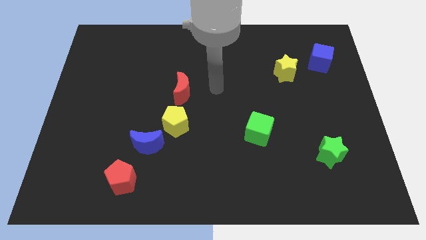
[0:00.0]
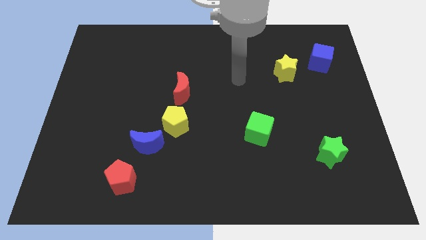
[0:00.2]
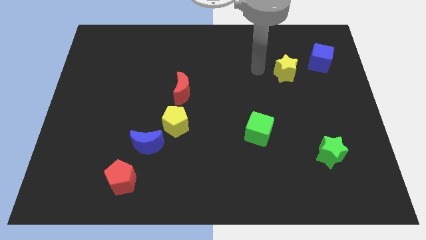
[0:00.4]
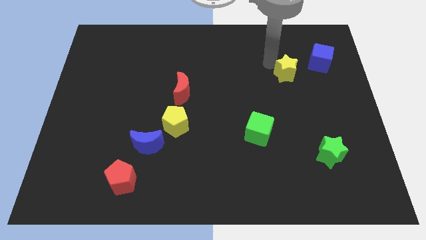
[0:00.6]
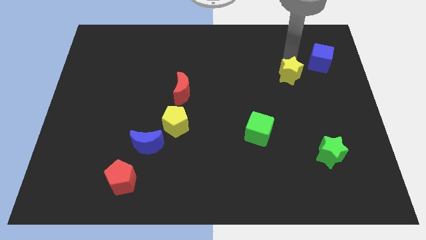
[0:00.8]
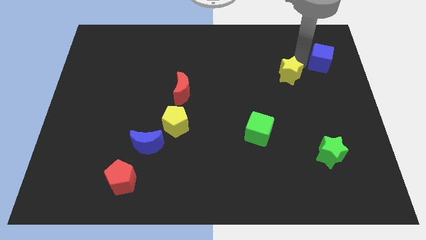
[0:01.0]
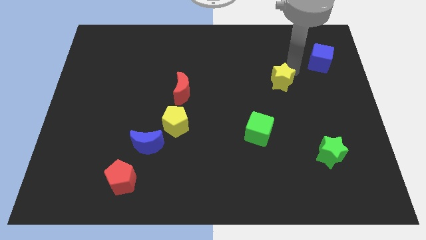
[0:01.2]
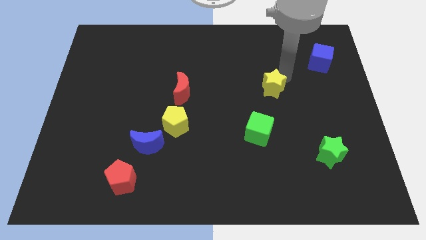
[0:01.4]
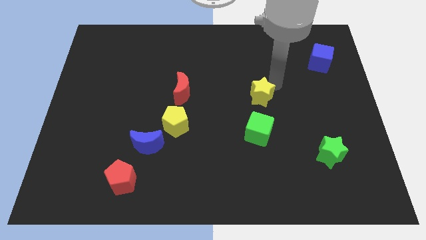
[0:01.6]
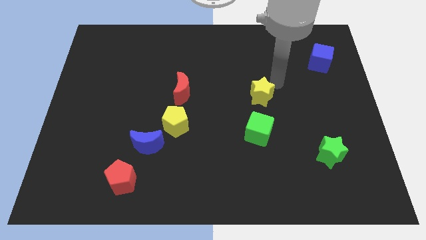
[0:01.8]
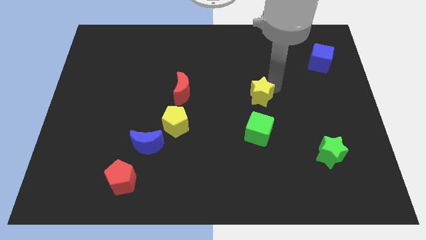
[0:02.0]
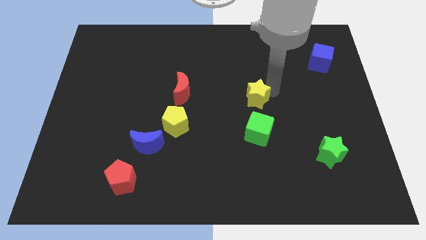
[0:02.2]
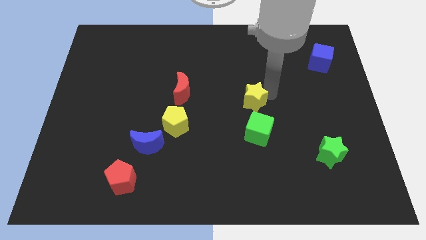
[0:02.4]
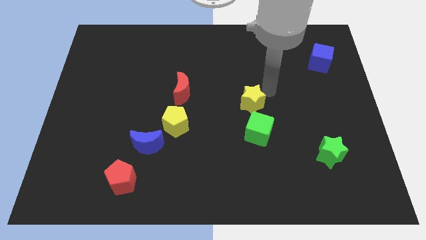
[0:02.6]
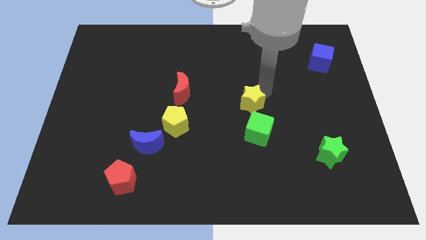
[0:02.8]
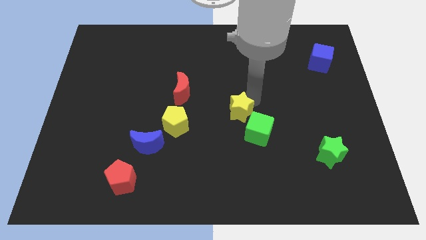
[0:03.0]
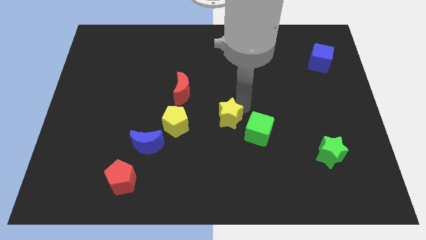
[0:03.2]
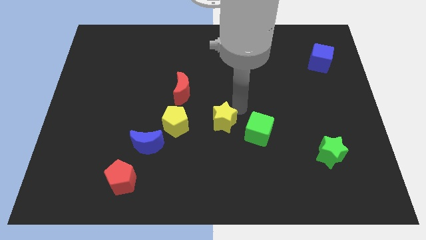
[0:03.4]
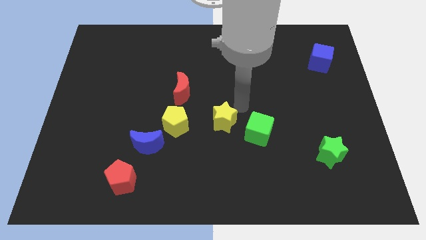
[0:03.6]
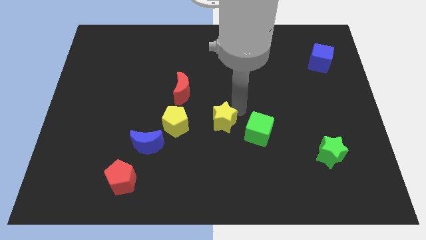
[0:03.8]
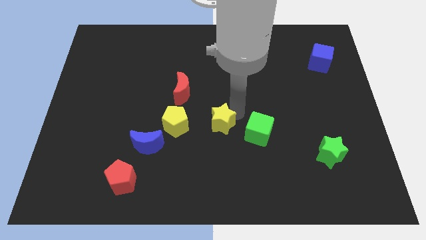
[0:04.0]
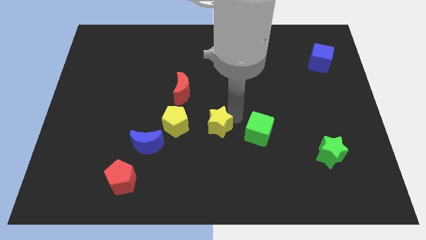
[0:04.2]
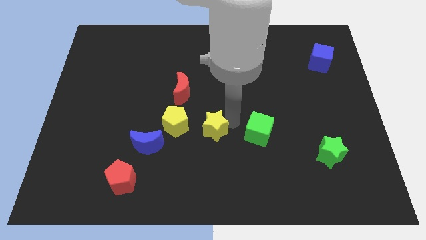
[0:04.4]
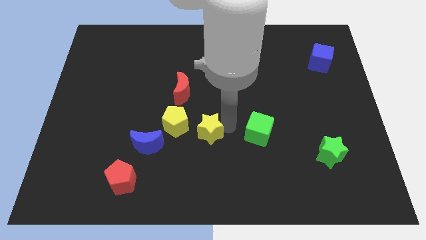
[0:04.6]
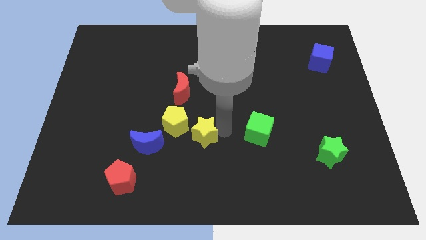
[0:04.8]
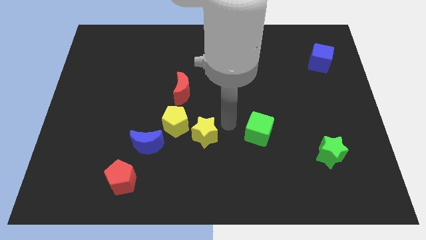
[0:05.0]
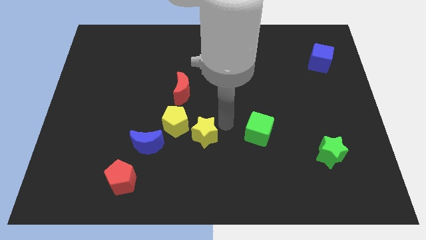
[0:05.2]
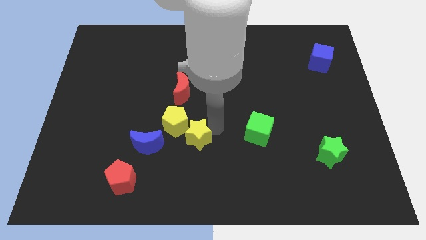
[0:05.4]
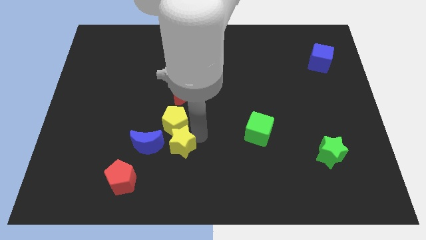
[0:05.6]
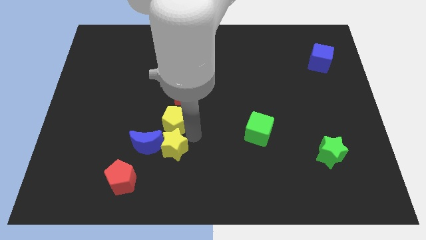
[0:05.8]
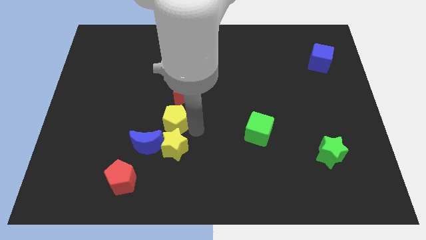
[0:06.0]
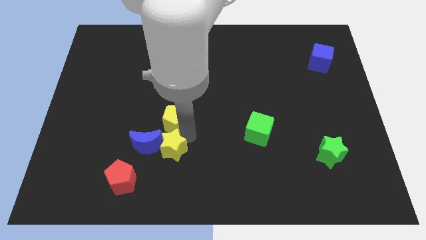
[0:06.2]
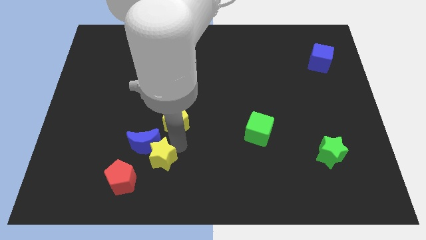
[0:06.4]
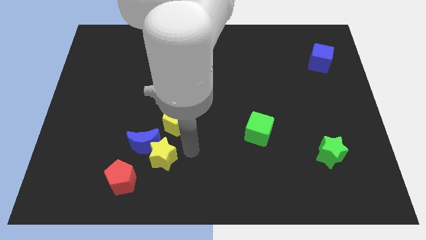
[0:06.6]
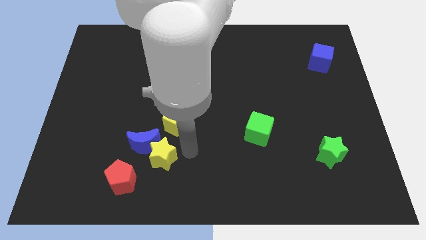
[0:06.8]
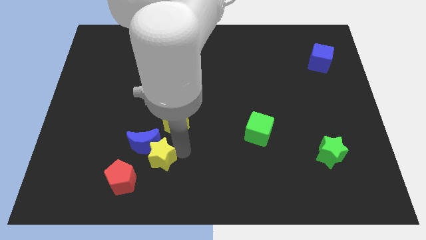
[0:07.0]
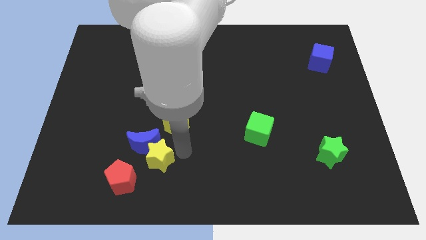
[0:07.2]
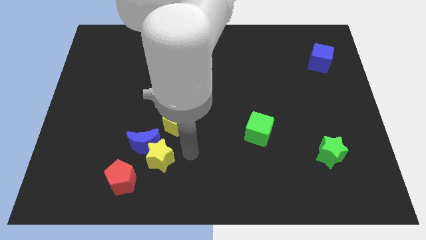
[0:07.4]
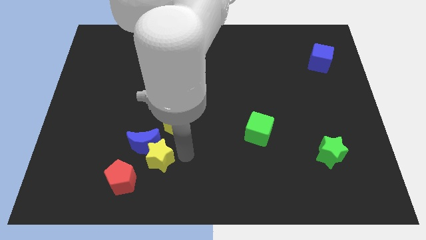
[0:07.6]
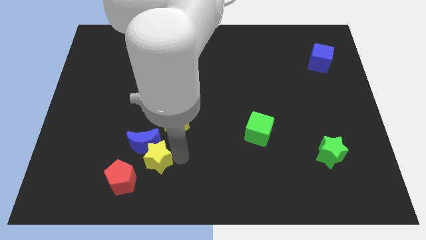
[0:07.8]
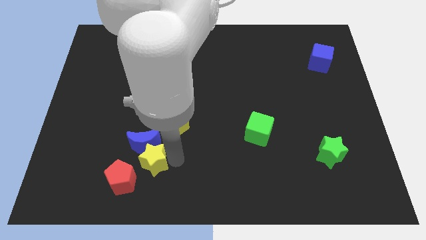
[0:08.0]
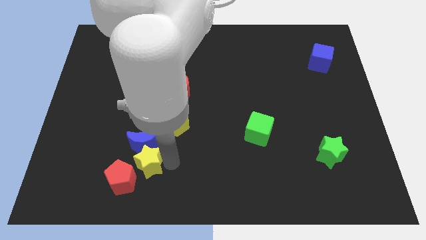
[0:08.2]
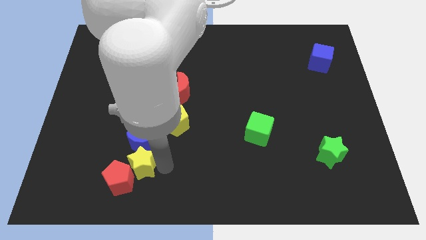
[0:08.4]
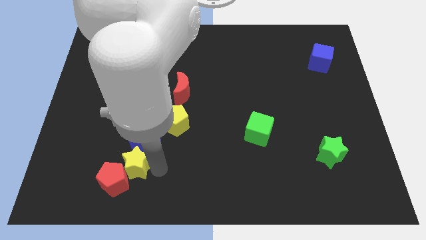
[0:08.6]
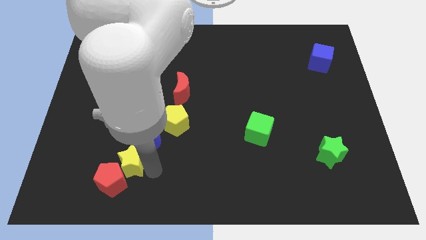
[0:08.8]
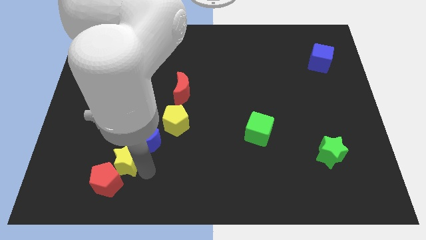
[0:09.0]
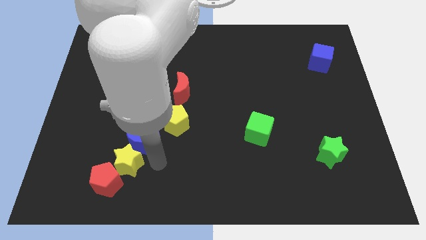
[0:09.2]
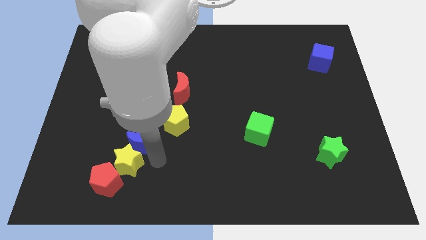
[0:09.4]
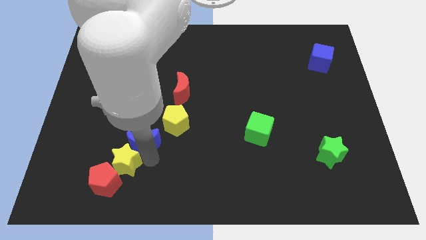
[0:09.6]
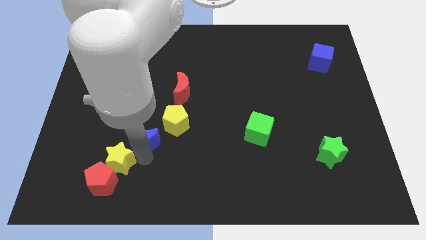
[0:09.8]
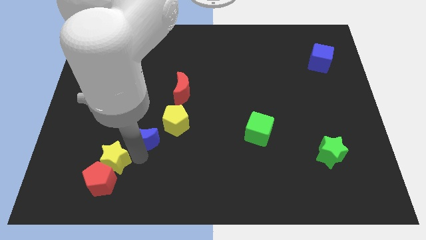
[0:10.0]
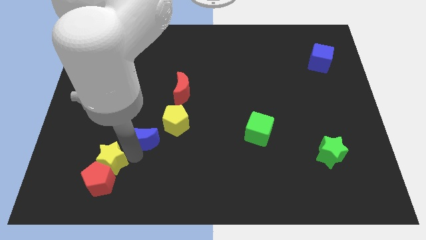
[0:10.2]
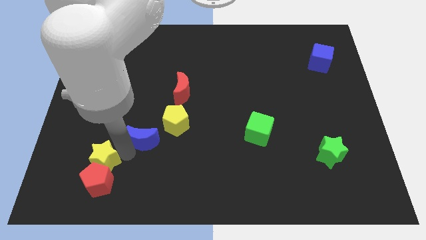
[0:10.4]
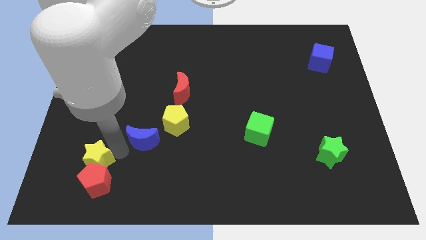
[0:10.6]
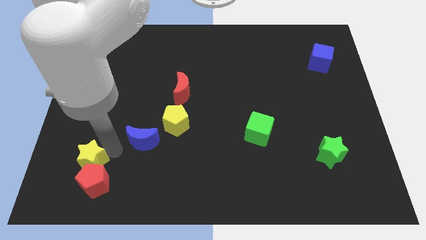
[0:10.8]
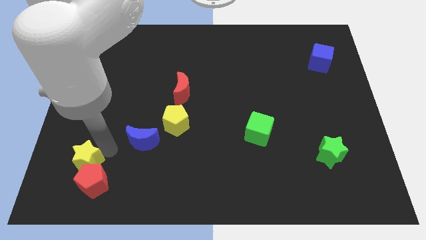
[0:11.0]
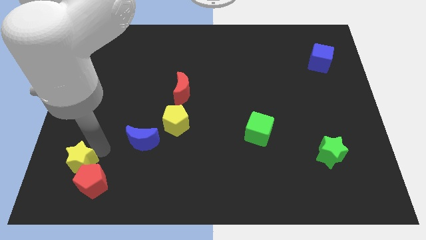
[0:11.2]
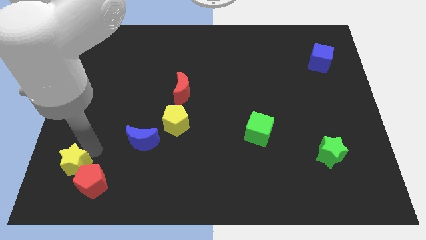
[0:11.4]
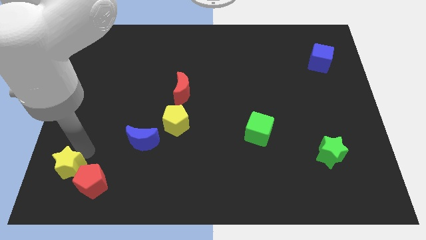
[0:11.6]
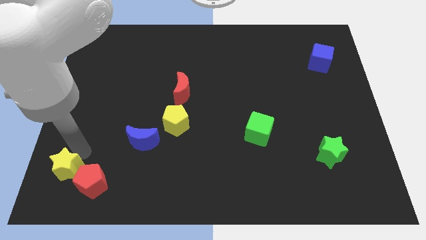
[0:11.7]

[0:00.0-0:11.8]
move the yellow star to the bottom left
